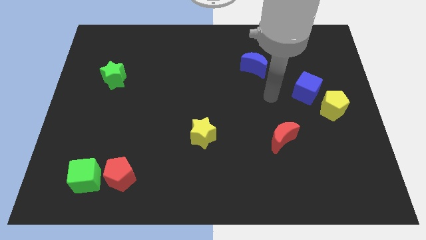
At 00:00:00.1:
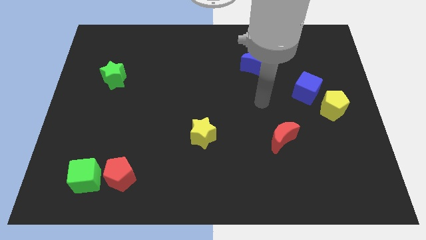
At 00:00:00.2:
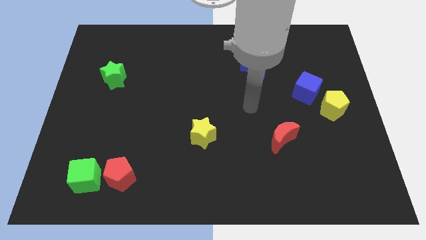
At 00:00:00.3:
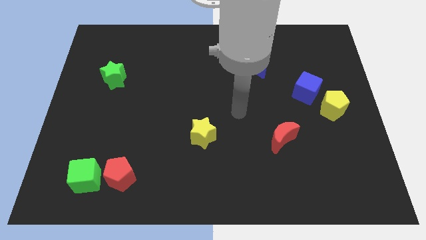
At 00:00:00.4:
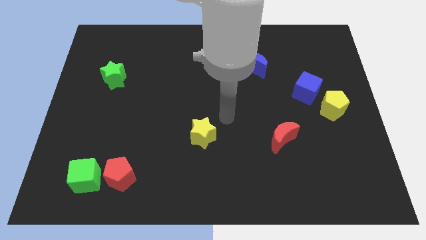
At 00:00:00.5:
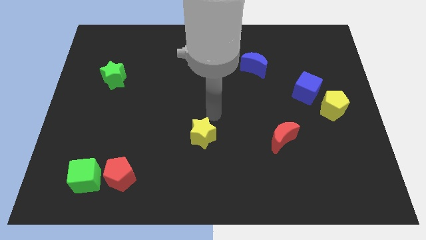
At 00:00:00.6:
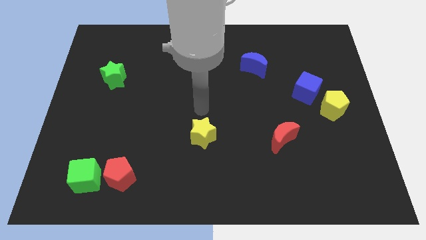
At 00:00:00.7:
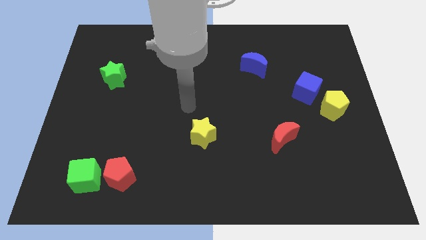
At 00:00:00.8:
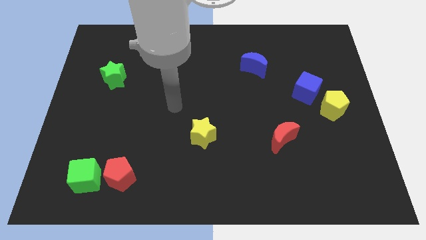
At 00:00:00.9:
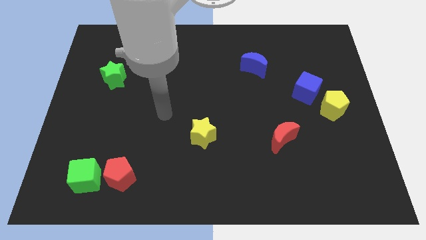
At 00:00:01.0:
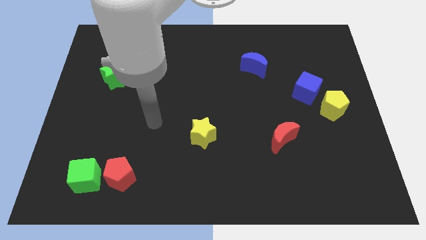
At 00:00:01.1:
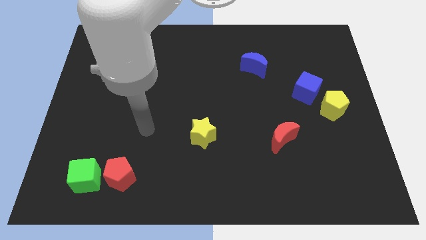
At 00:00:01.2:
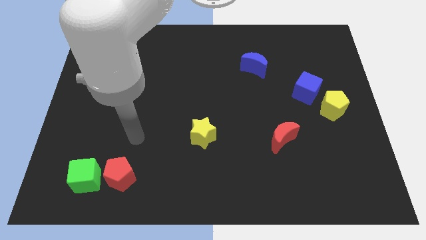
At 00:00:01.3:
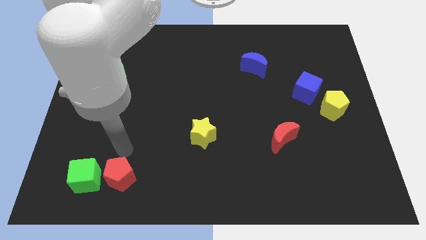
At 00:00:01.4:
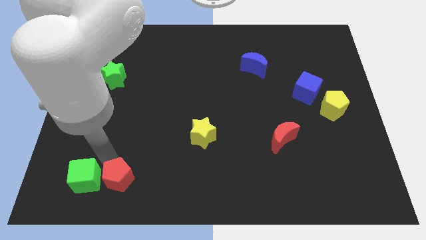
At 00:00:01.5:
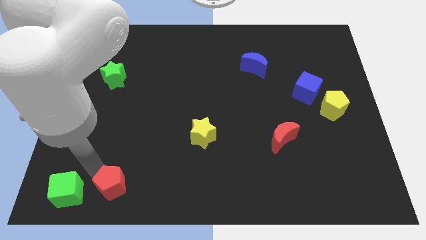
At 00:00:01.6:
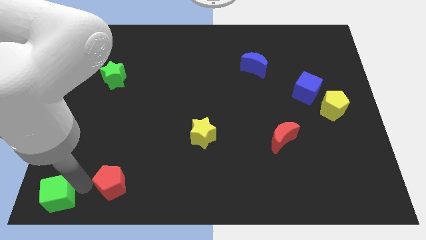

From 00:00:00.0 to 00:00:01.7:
move the red pentagon away from the green cube

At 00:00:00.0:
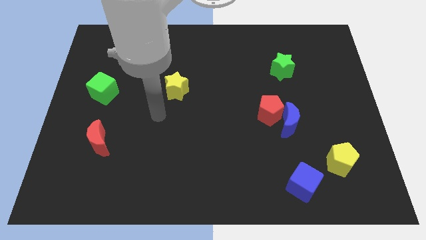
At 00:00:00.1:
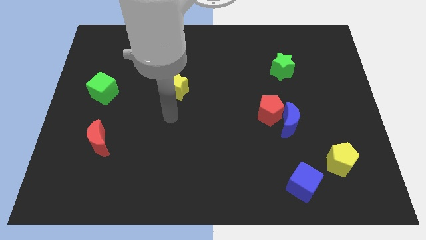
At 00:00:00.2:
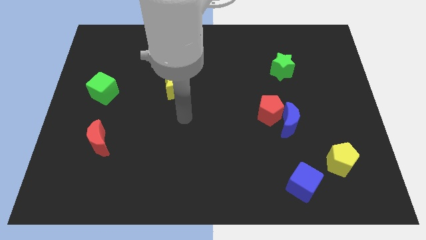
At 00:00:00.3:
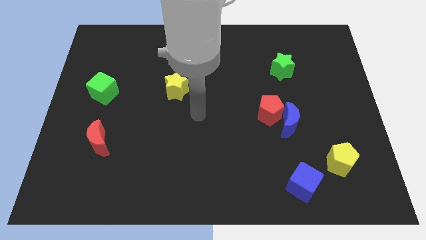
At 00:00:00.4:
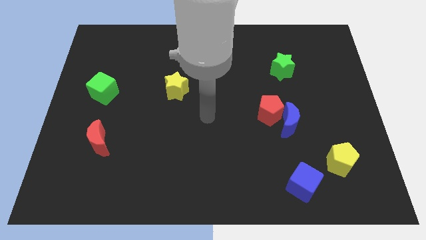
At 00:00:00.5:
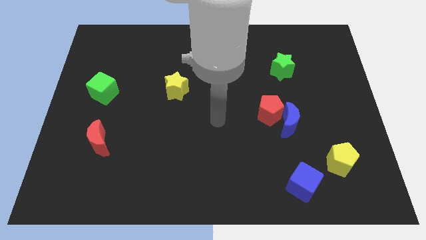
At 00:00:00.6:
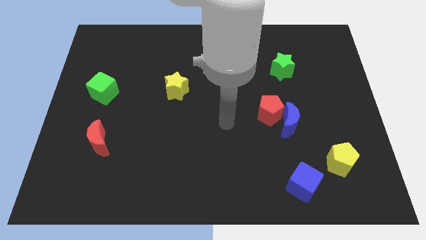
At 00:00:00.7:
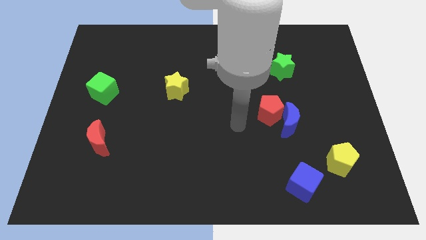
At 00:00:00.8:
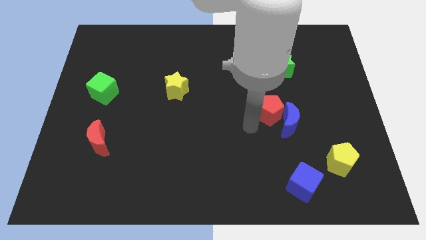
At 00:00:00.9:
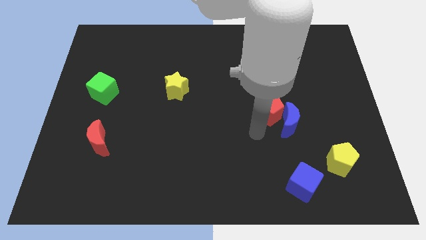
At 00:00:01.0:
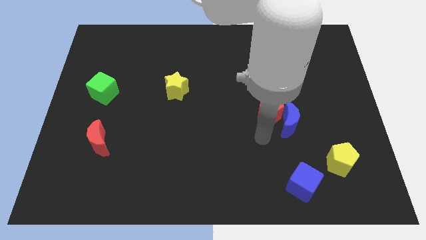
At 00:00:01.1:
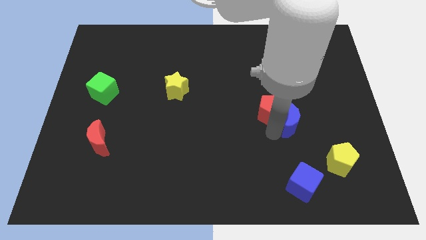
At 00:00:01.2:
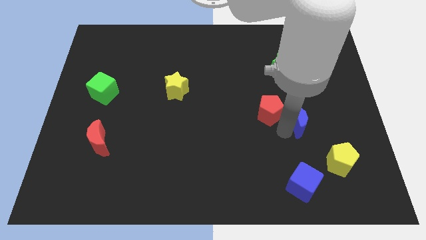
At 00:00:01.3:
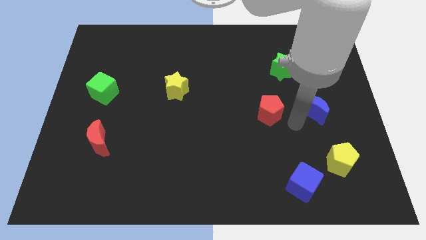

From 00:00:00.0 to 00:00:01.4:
pull the red pentagon apart from the blue moon

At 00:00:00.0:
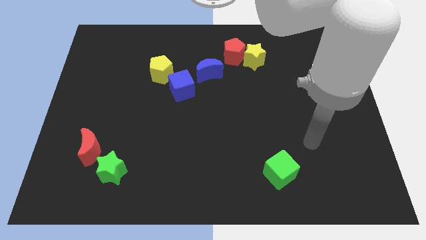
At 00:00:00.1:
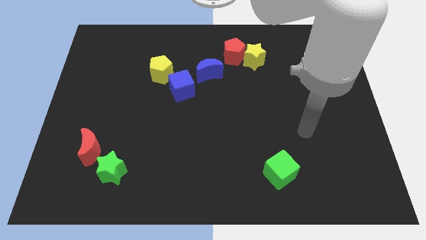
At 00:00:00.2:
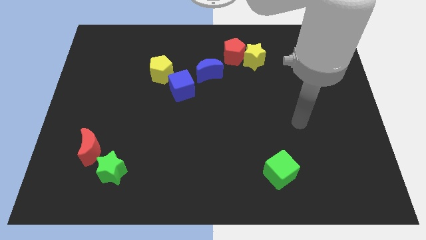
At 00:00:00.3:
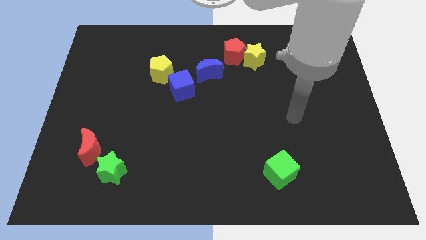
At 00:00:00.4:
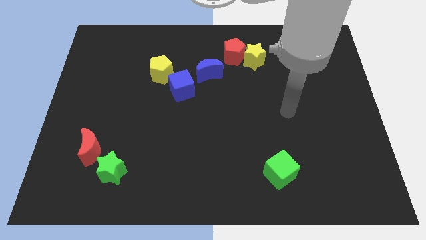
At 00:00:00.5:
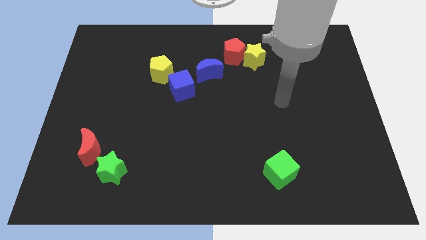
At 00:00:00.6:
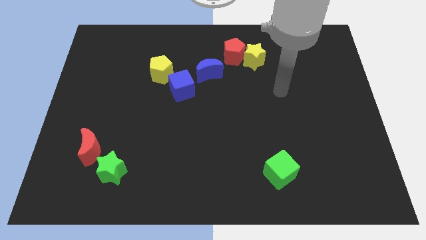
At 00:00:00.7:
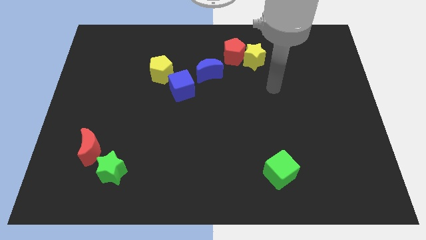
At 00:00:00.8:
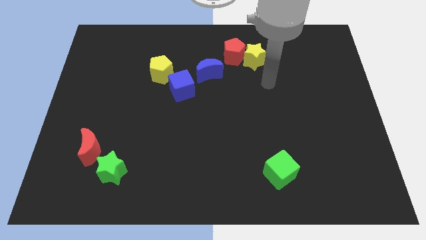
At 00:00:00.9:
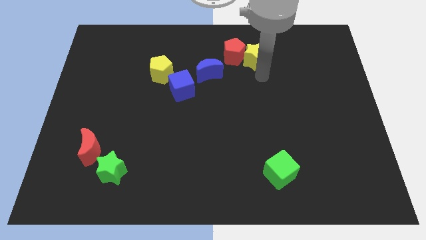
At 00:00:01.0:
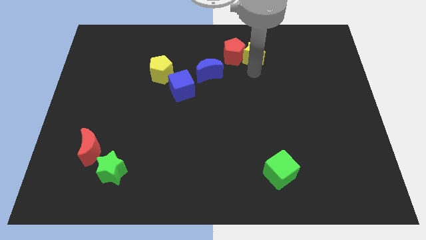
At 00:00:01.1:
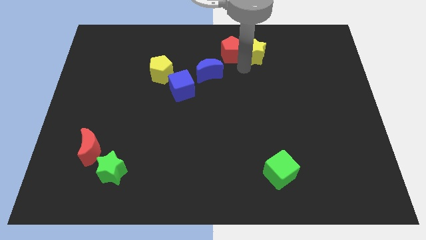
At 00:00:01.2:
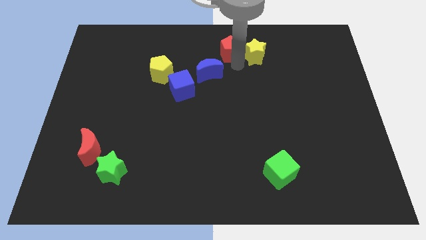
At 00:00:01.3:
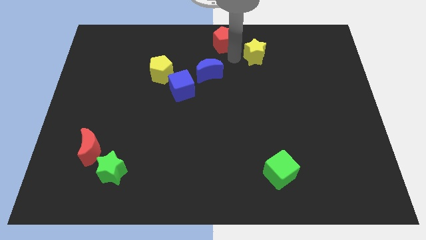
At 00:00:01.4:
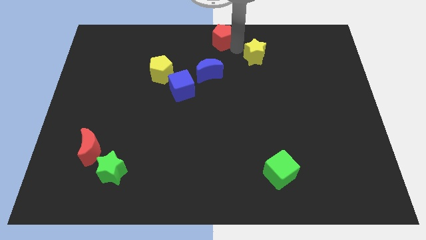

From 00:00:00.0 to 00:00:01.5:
move the yellow star away from the red pentagon

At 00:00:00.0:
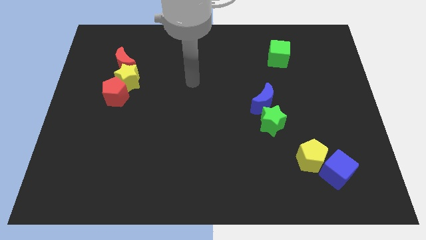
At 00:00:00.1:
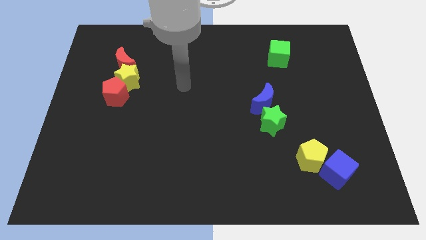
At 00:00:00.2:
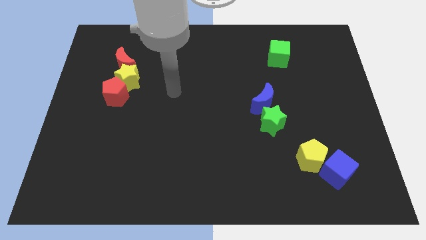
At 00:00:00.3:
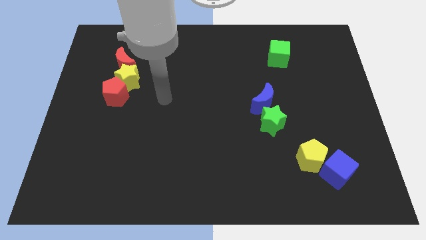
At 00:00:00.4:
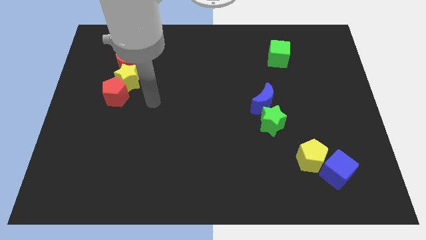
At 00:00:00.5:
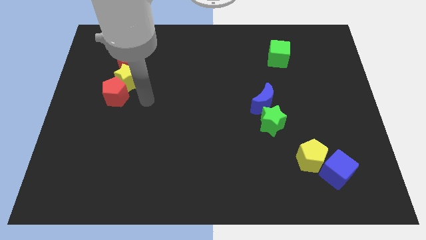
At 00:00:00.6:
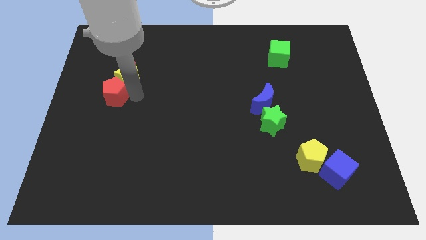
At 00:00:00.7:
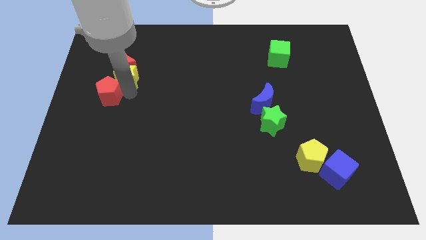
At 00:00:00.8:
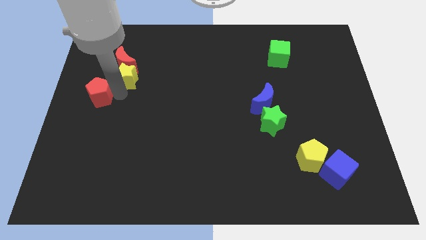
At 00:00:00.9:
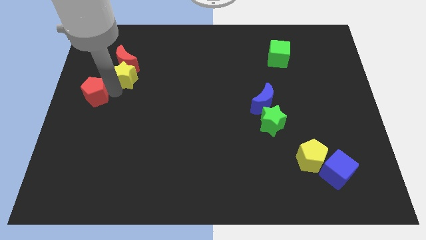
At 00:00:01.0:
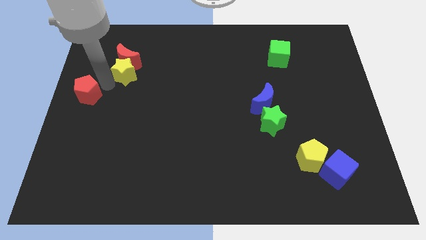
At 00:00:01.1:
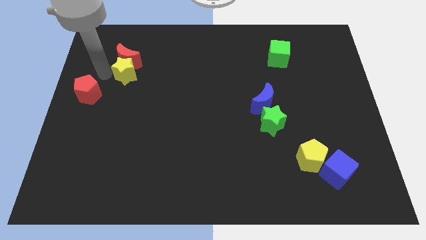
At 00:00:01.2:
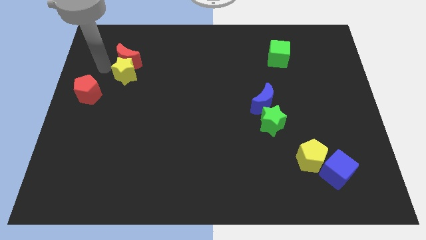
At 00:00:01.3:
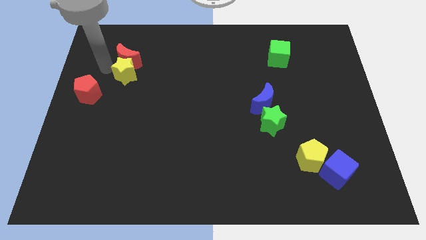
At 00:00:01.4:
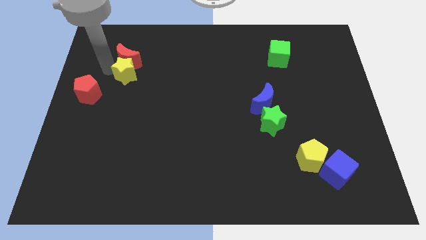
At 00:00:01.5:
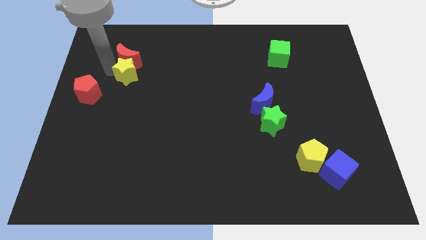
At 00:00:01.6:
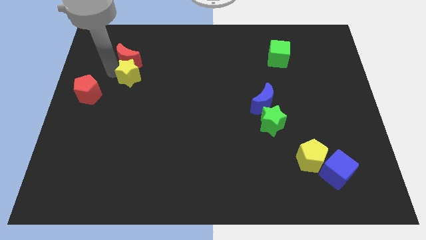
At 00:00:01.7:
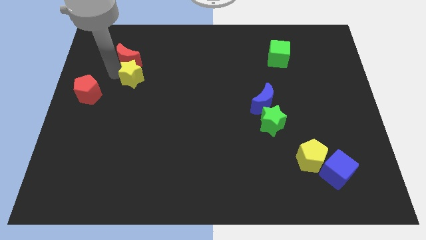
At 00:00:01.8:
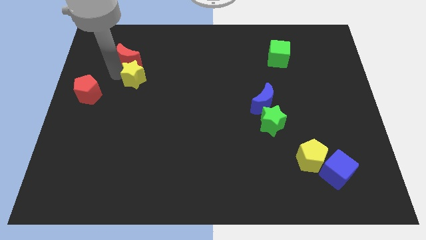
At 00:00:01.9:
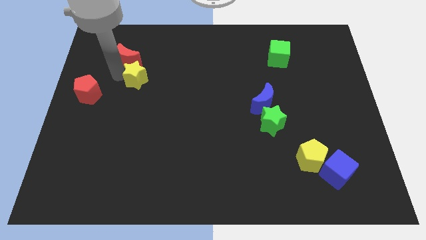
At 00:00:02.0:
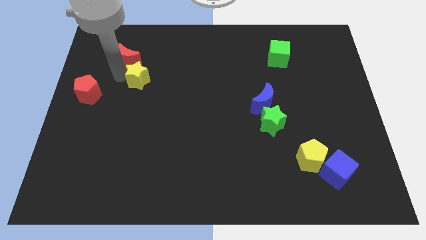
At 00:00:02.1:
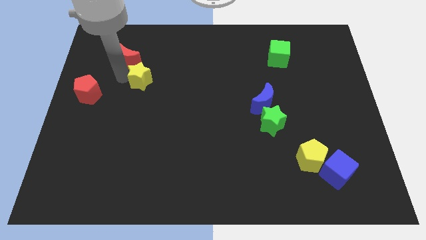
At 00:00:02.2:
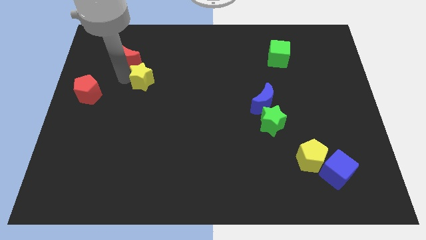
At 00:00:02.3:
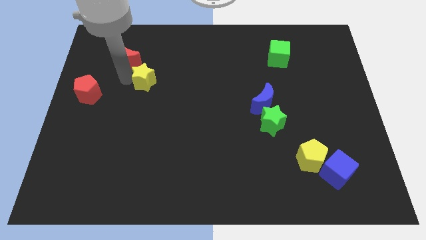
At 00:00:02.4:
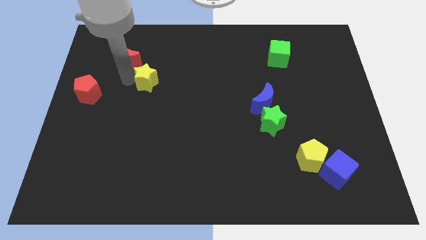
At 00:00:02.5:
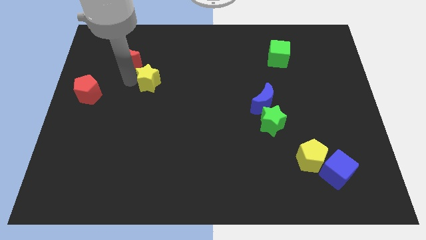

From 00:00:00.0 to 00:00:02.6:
pull the yellow star apart from the red moon and red pentagon

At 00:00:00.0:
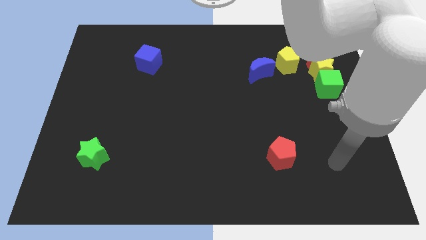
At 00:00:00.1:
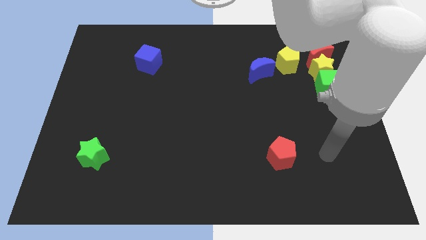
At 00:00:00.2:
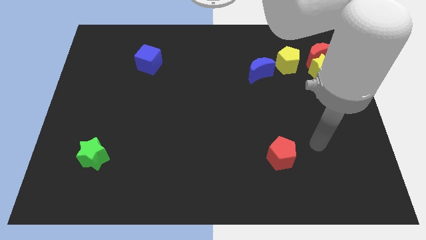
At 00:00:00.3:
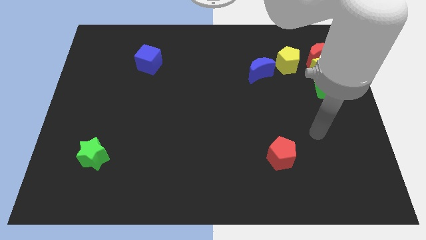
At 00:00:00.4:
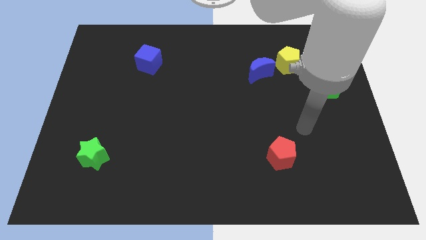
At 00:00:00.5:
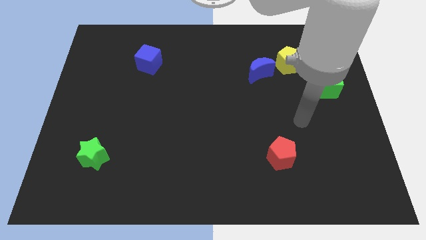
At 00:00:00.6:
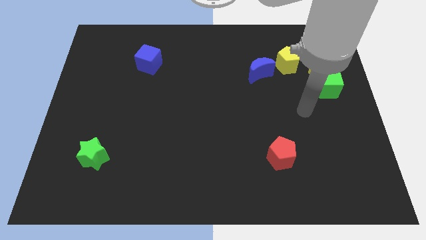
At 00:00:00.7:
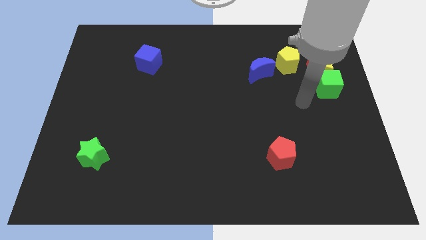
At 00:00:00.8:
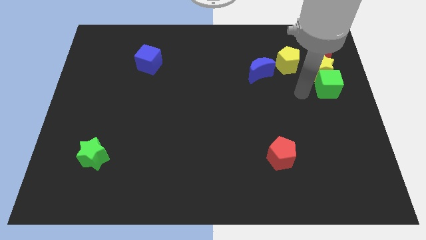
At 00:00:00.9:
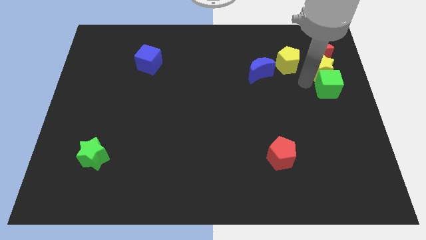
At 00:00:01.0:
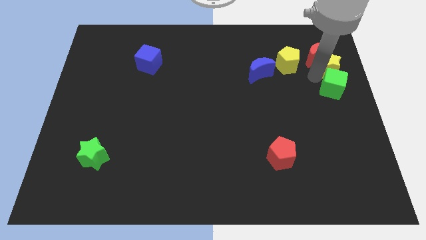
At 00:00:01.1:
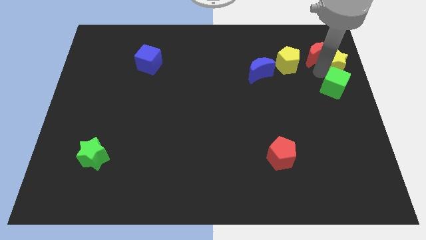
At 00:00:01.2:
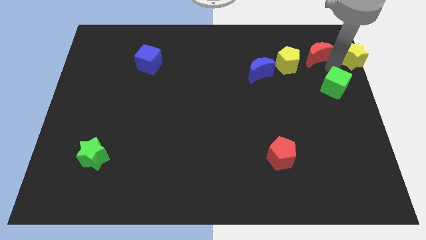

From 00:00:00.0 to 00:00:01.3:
separate the green cube from the yellow star

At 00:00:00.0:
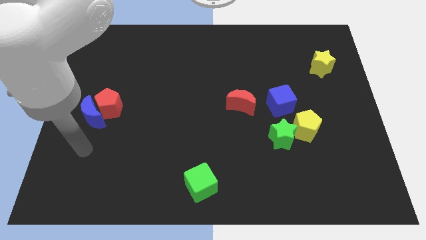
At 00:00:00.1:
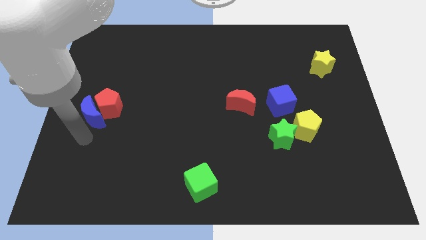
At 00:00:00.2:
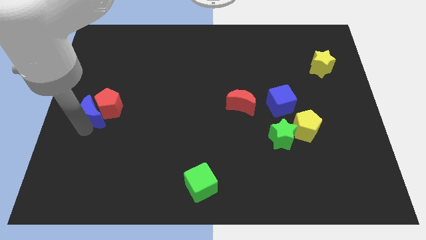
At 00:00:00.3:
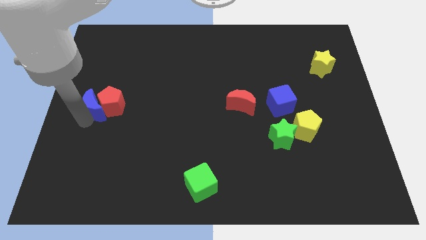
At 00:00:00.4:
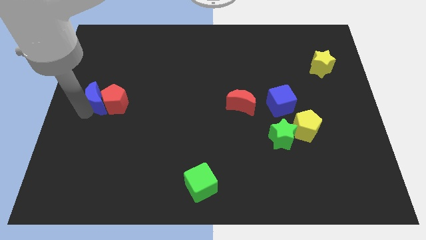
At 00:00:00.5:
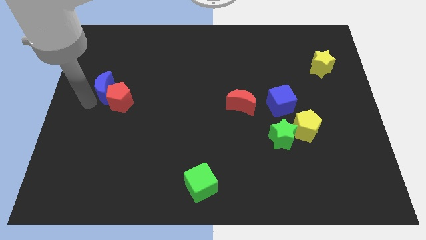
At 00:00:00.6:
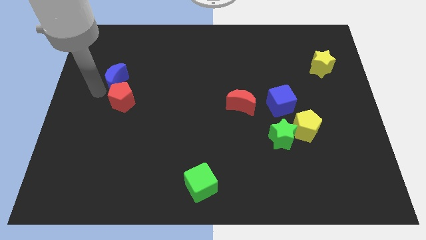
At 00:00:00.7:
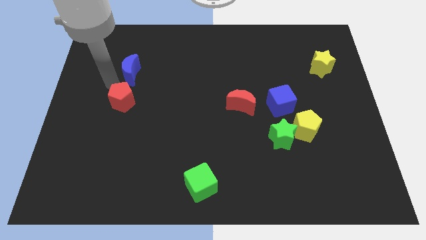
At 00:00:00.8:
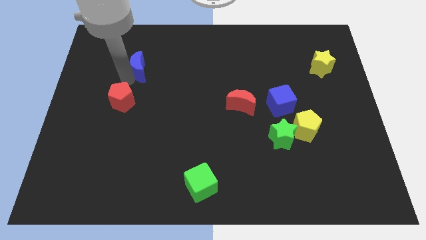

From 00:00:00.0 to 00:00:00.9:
separate the red pentagon from the blue moon
